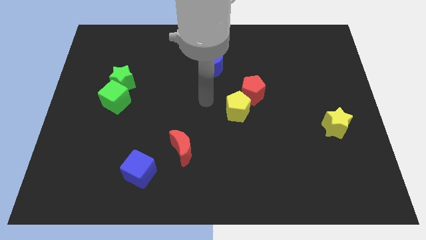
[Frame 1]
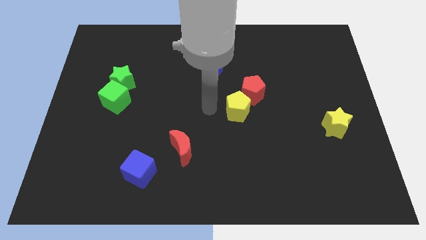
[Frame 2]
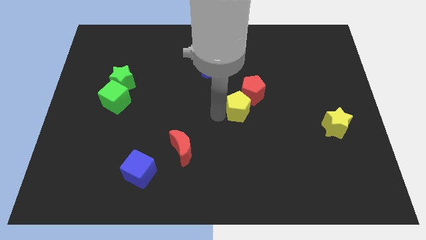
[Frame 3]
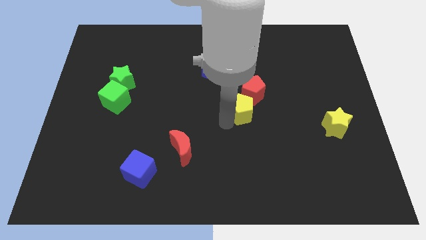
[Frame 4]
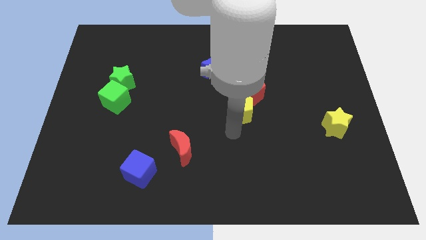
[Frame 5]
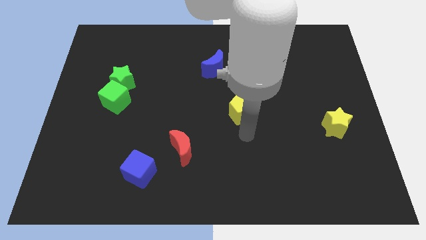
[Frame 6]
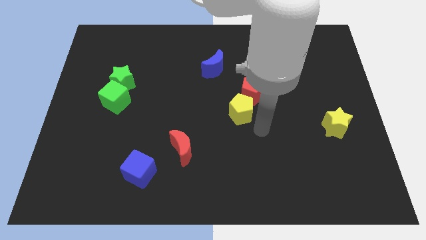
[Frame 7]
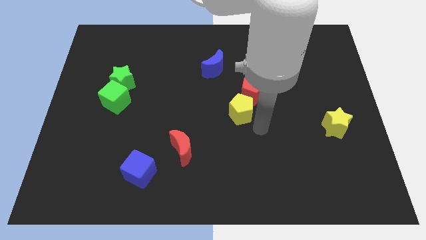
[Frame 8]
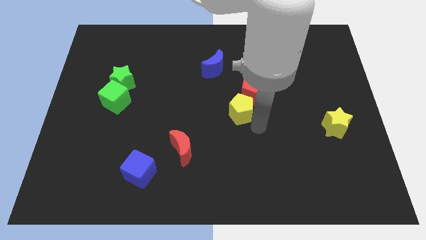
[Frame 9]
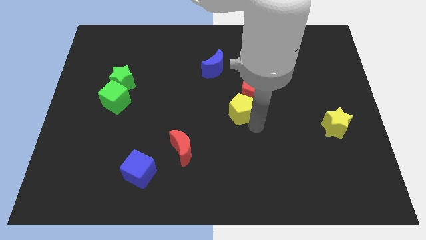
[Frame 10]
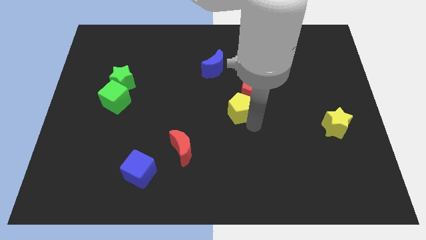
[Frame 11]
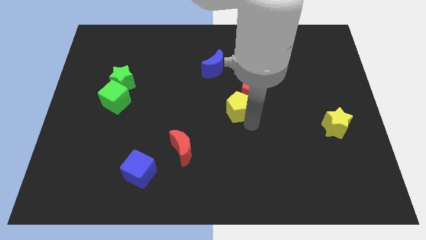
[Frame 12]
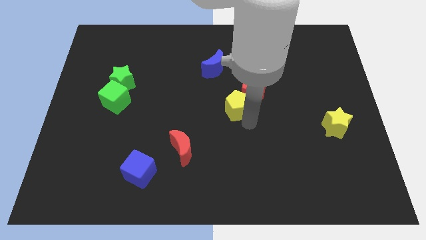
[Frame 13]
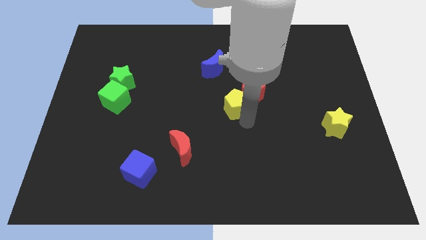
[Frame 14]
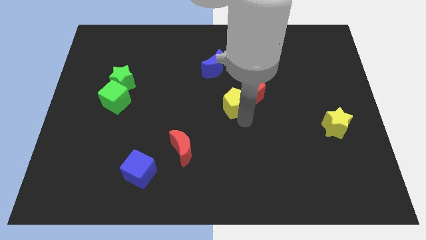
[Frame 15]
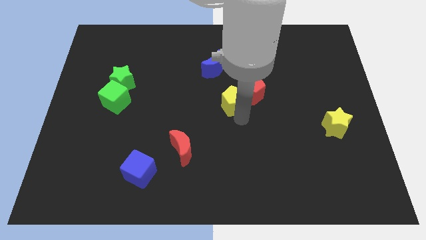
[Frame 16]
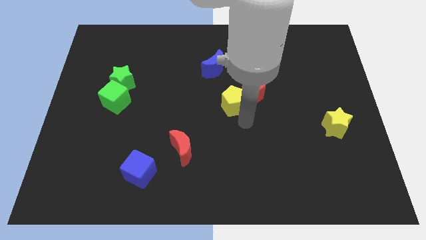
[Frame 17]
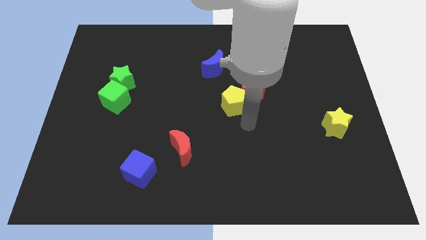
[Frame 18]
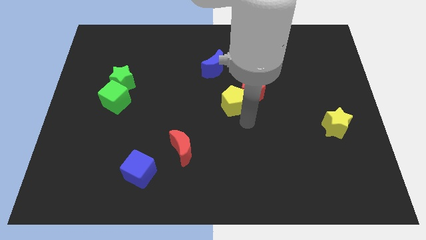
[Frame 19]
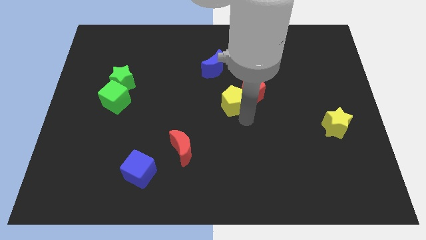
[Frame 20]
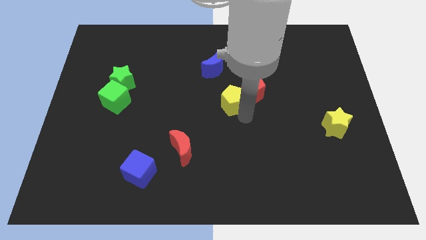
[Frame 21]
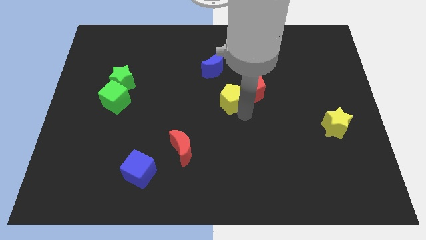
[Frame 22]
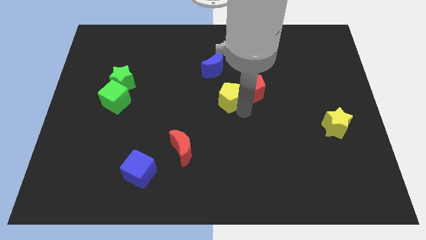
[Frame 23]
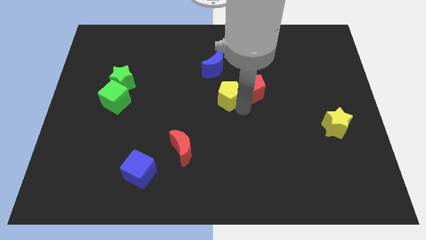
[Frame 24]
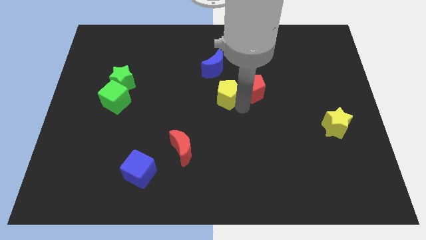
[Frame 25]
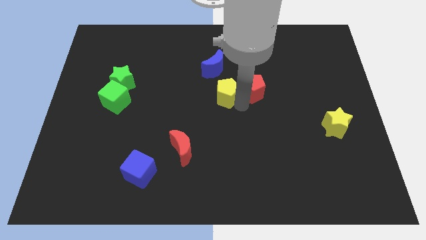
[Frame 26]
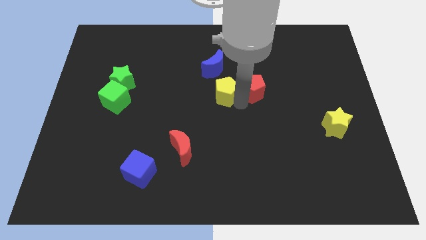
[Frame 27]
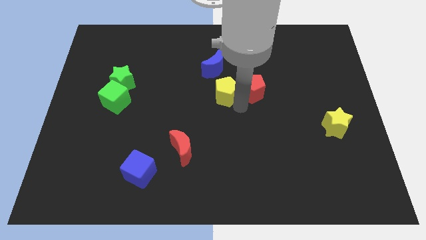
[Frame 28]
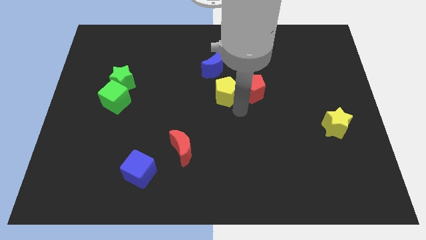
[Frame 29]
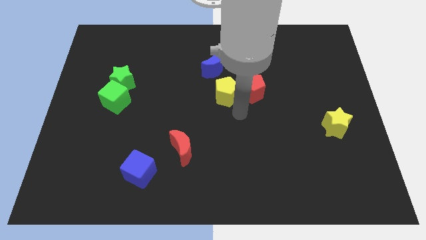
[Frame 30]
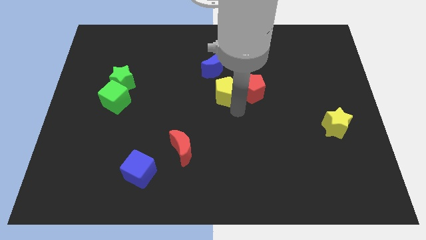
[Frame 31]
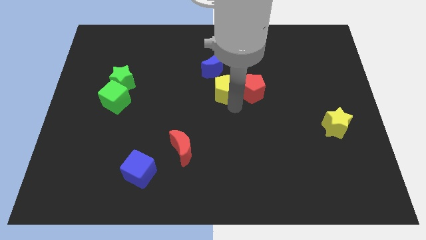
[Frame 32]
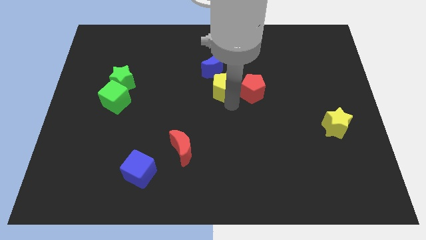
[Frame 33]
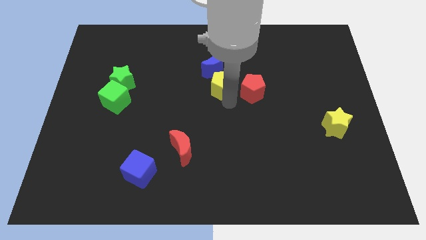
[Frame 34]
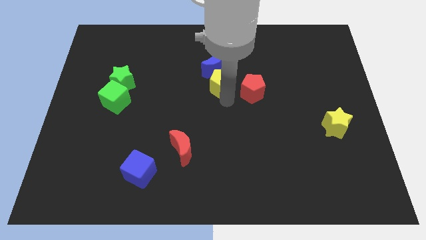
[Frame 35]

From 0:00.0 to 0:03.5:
slide the yellow pentagon to the blue moon

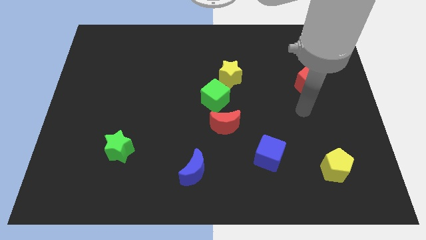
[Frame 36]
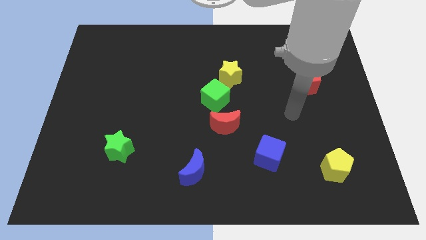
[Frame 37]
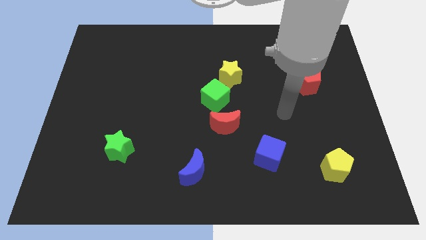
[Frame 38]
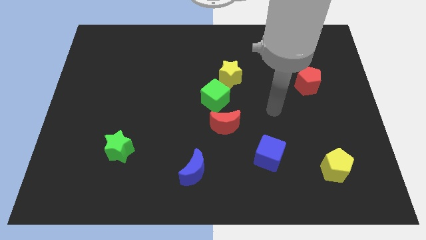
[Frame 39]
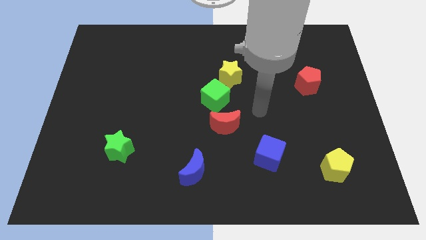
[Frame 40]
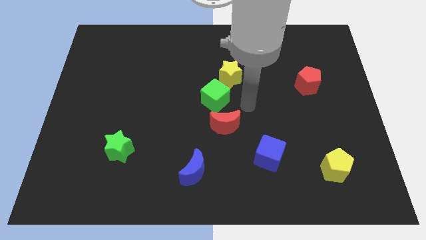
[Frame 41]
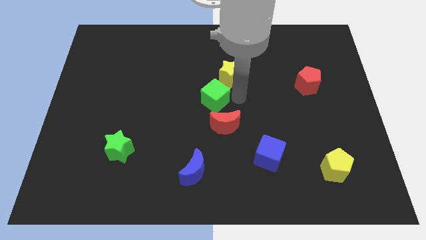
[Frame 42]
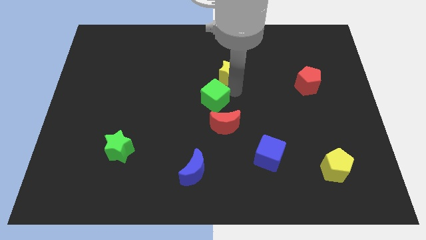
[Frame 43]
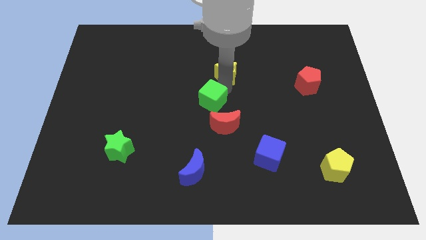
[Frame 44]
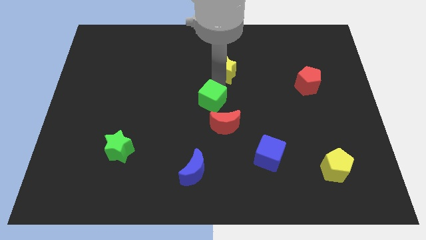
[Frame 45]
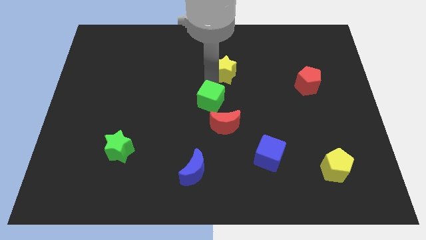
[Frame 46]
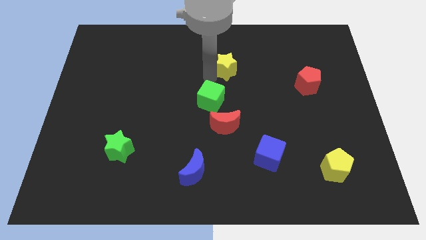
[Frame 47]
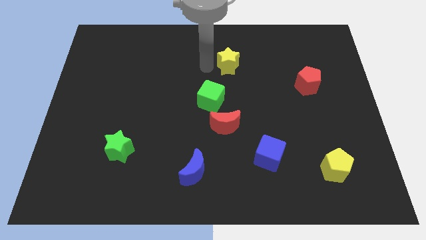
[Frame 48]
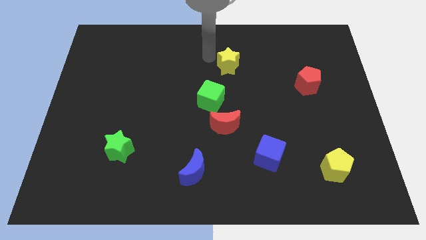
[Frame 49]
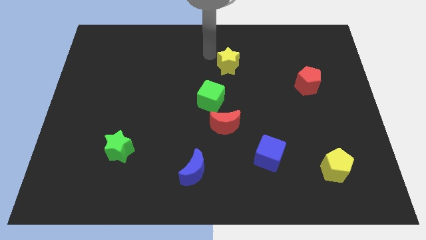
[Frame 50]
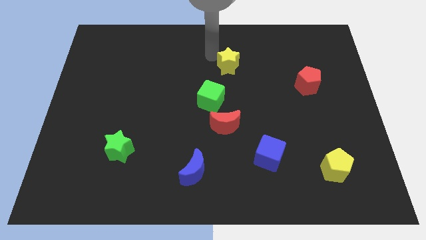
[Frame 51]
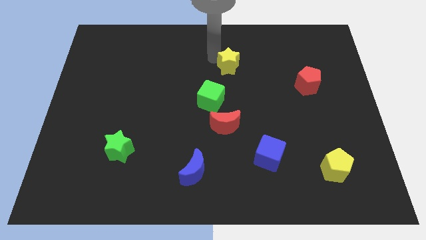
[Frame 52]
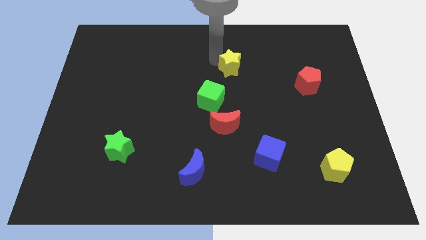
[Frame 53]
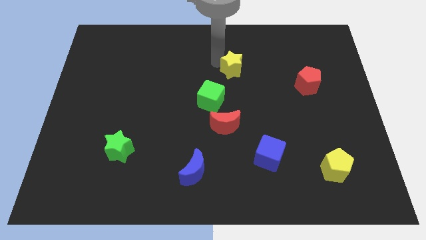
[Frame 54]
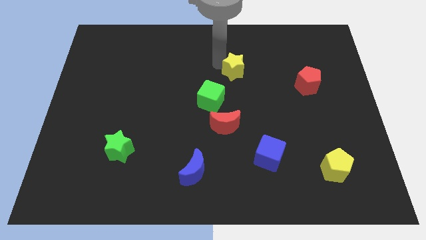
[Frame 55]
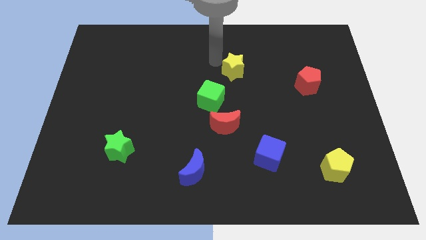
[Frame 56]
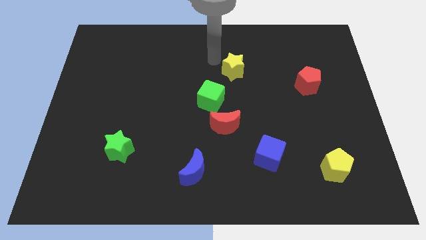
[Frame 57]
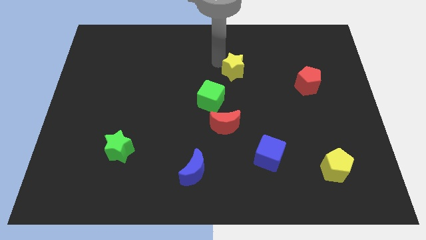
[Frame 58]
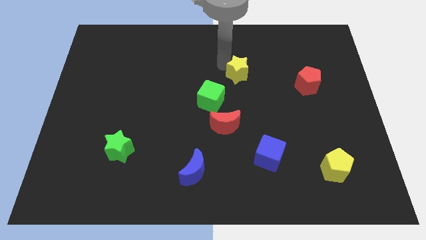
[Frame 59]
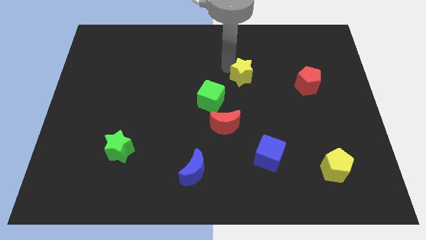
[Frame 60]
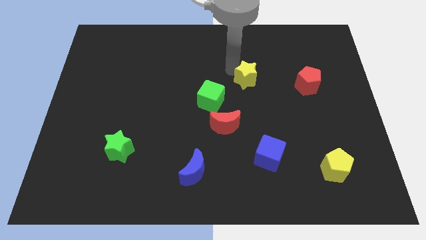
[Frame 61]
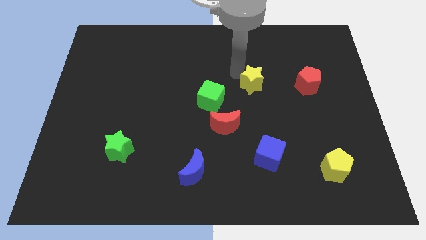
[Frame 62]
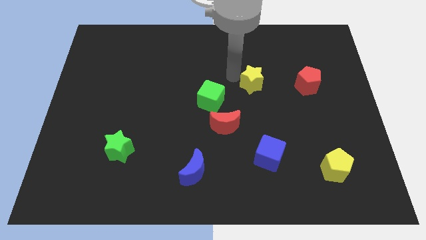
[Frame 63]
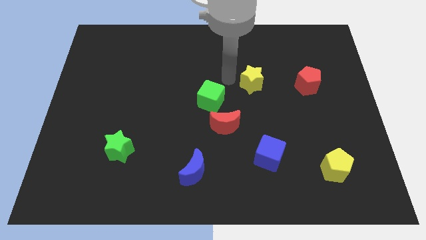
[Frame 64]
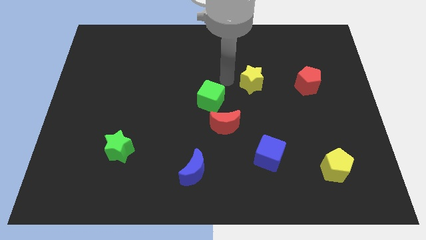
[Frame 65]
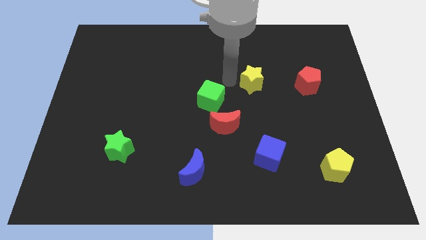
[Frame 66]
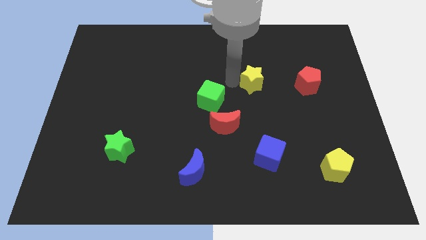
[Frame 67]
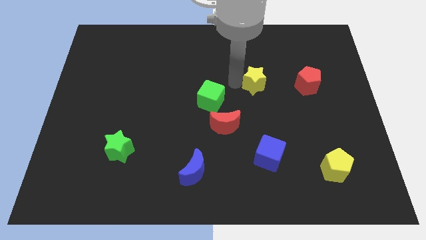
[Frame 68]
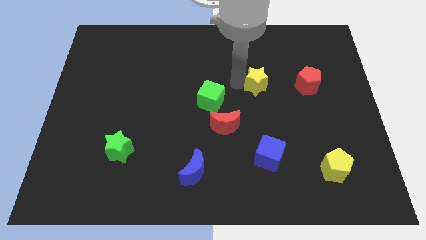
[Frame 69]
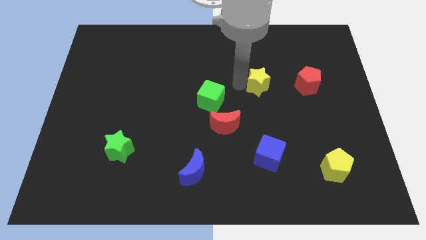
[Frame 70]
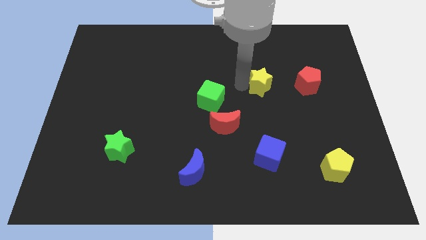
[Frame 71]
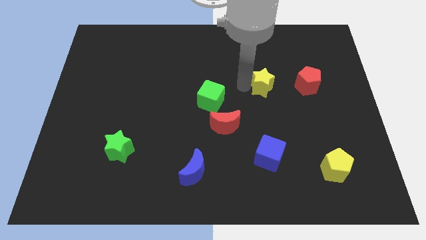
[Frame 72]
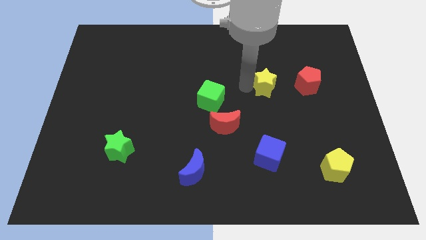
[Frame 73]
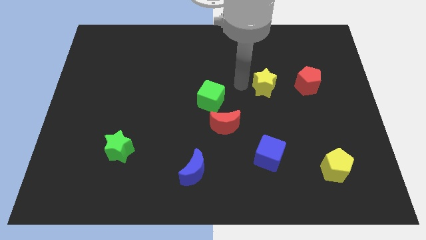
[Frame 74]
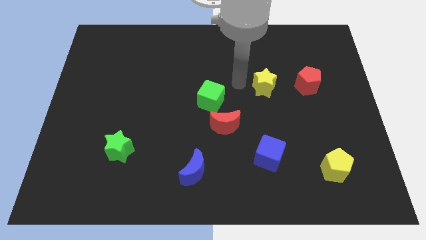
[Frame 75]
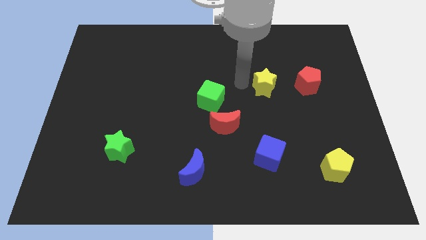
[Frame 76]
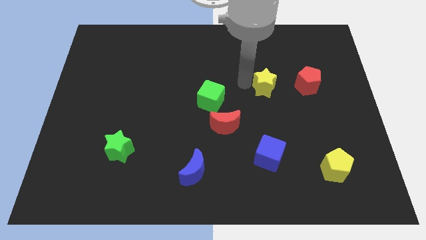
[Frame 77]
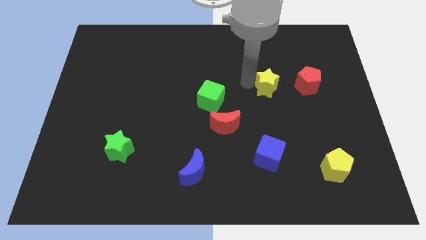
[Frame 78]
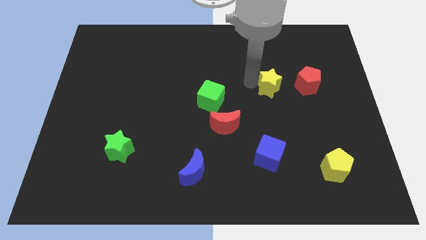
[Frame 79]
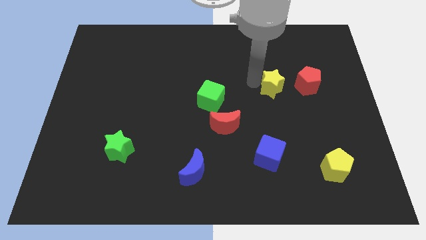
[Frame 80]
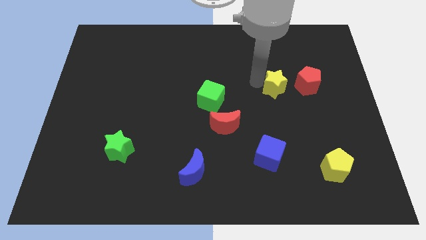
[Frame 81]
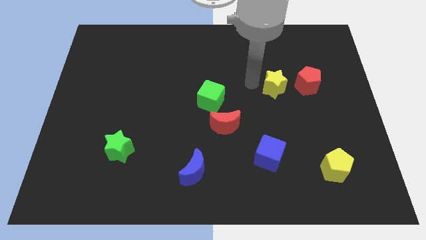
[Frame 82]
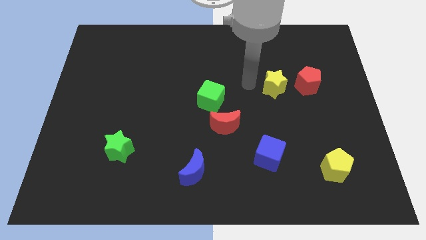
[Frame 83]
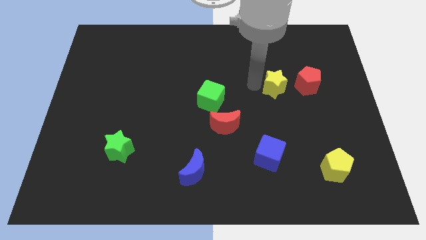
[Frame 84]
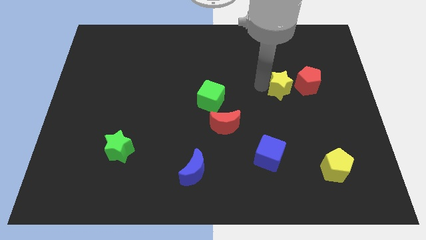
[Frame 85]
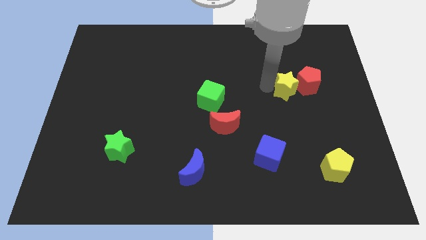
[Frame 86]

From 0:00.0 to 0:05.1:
slide the yellow star next to the red pentagon
